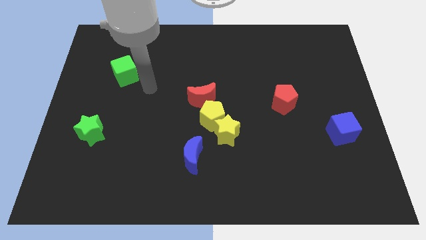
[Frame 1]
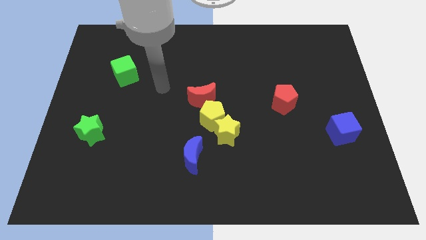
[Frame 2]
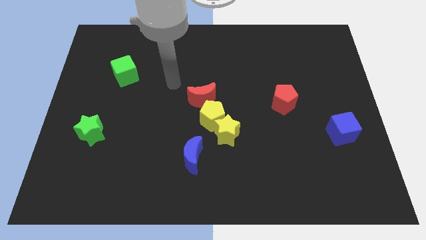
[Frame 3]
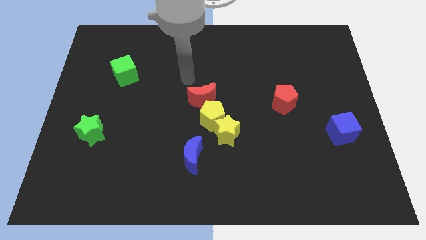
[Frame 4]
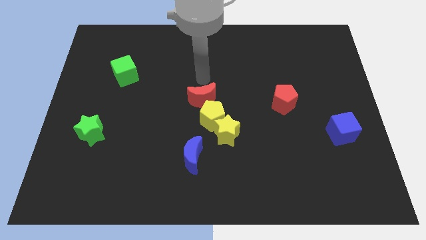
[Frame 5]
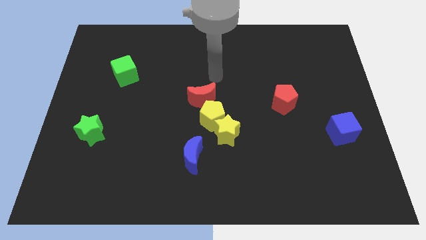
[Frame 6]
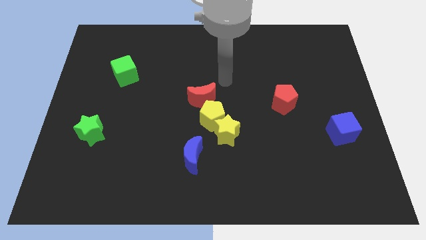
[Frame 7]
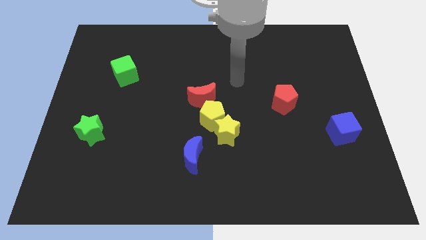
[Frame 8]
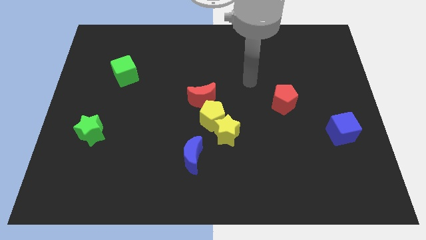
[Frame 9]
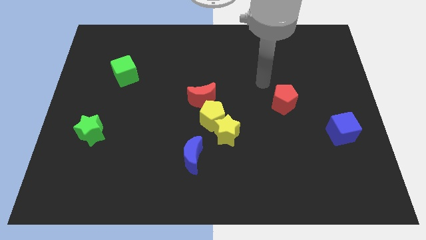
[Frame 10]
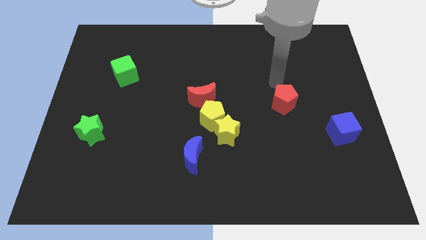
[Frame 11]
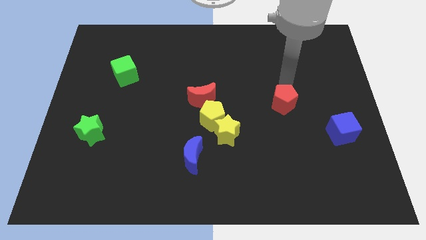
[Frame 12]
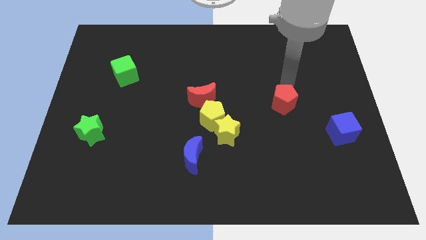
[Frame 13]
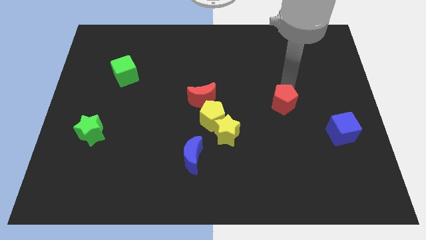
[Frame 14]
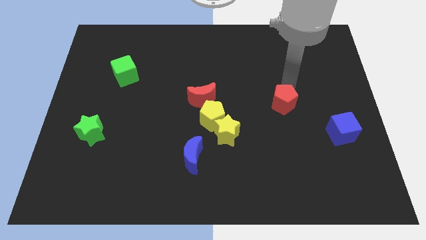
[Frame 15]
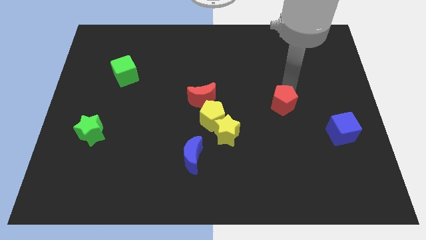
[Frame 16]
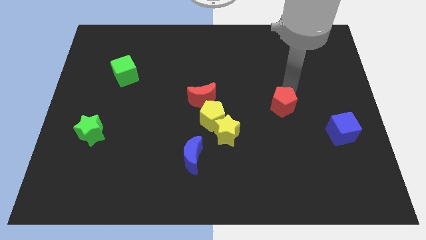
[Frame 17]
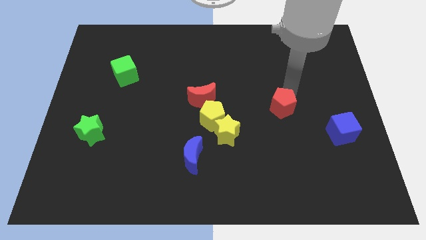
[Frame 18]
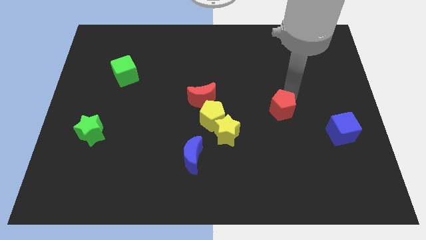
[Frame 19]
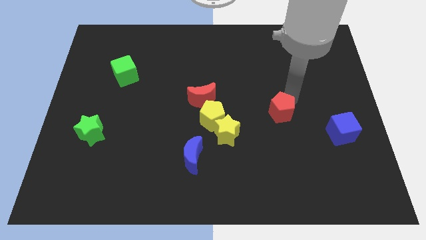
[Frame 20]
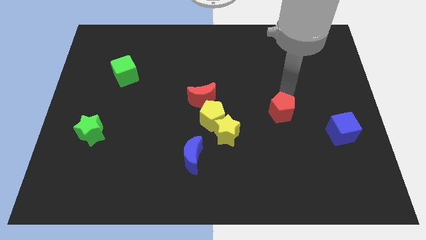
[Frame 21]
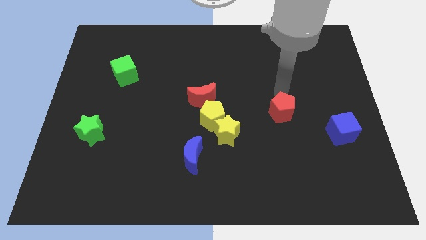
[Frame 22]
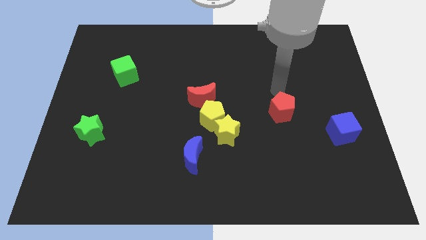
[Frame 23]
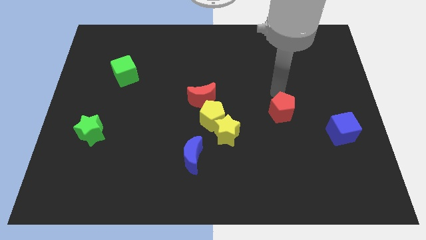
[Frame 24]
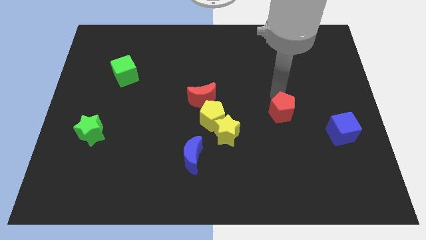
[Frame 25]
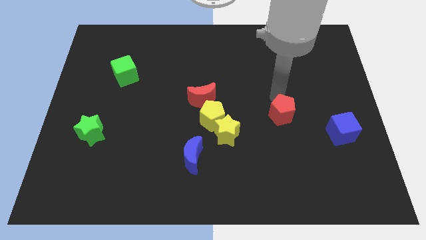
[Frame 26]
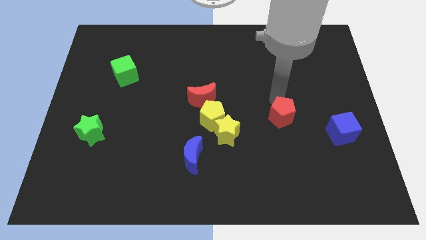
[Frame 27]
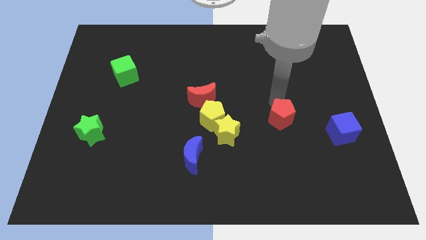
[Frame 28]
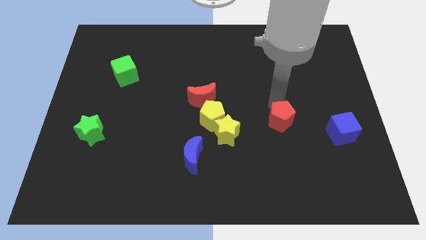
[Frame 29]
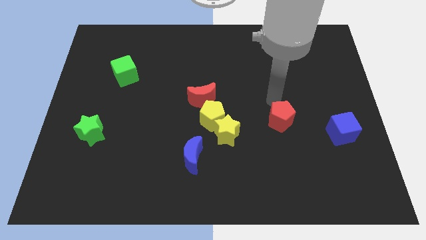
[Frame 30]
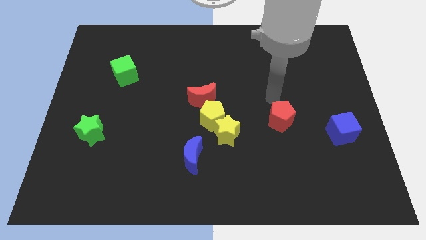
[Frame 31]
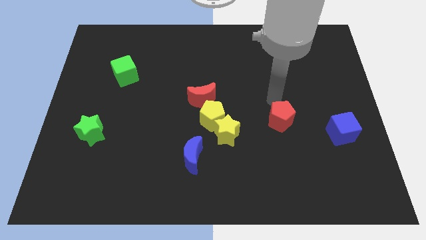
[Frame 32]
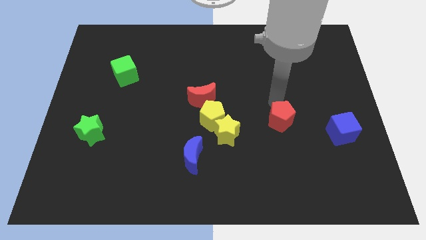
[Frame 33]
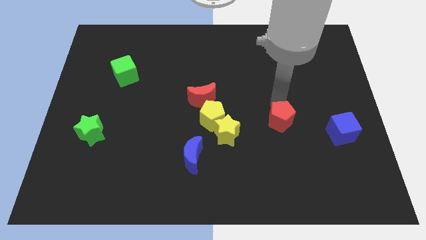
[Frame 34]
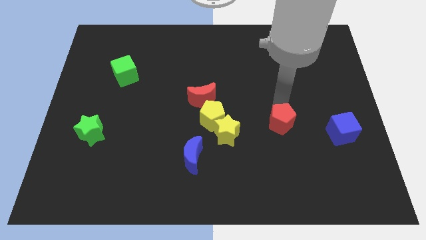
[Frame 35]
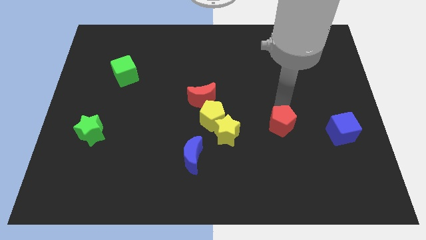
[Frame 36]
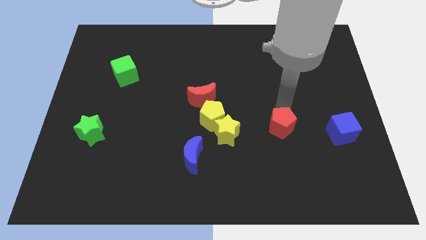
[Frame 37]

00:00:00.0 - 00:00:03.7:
slide the red pentagon a bit down

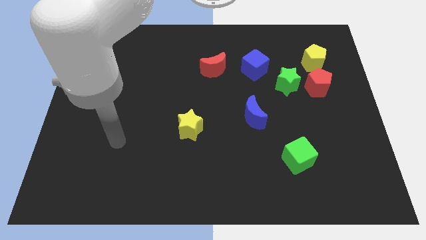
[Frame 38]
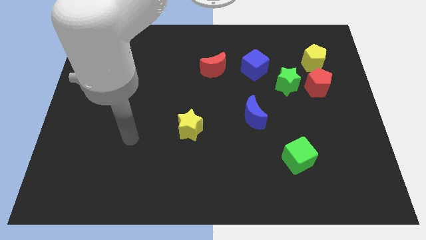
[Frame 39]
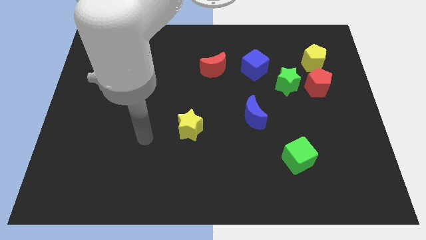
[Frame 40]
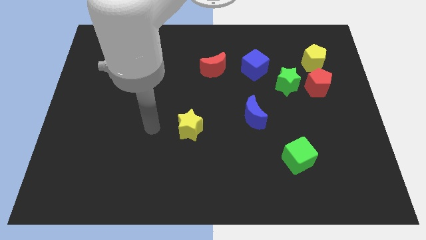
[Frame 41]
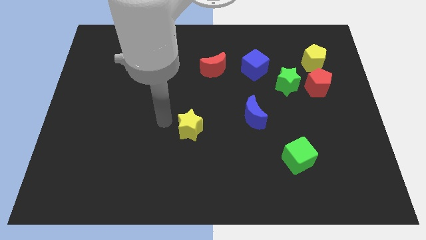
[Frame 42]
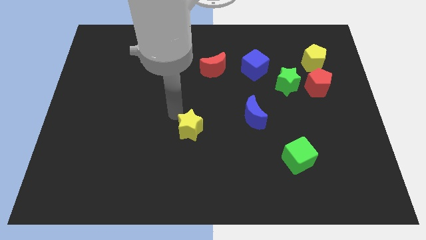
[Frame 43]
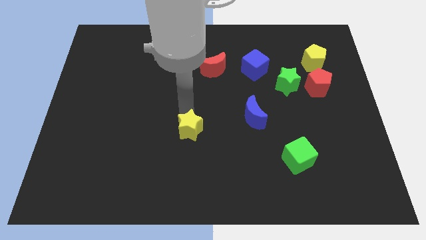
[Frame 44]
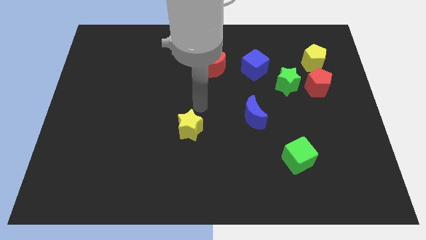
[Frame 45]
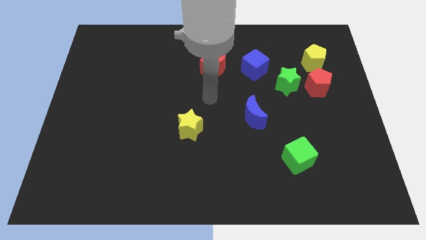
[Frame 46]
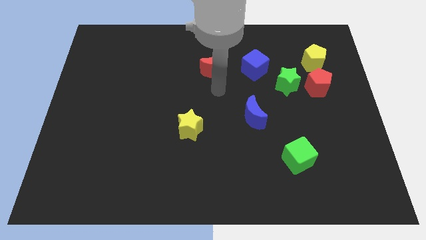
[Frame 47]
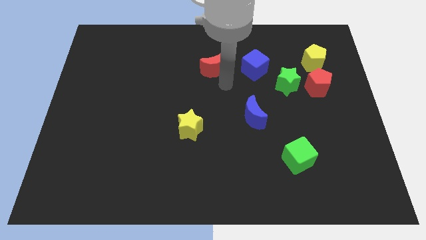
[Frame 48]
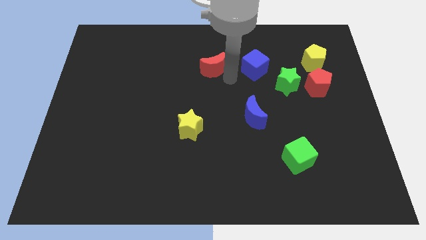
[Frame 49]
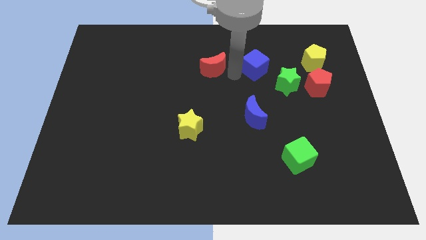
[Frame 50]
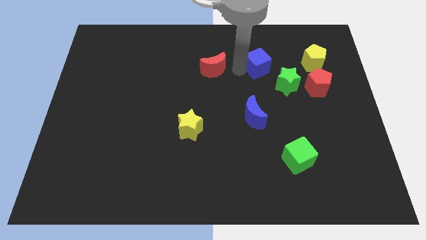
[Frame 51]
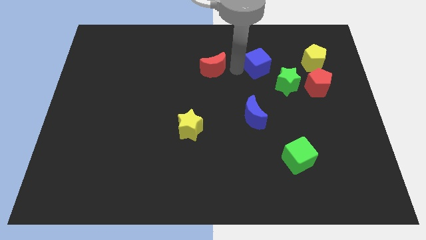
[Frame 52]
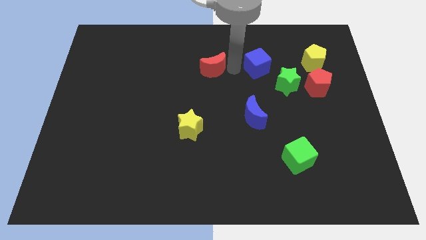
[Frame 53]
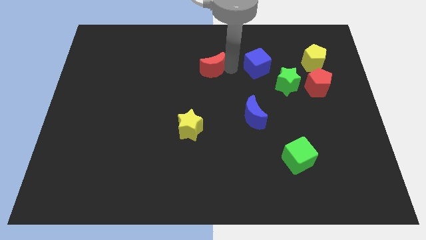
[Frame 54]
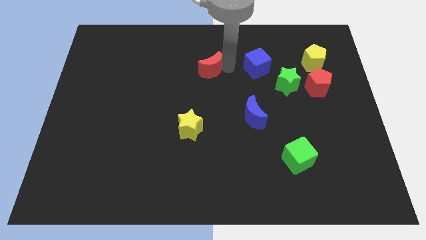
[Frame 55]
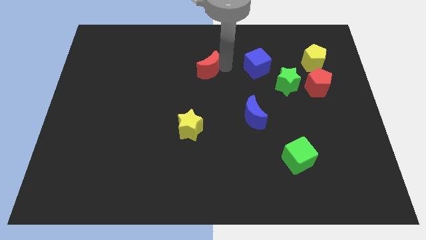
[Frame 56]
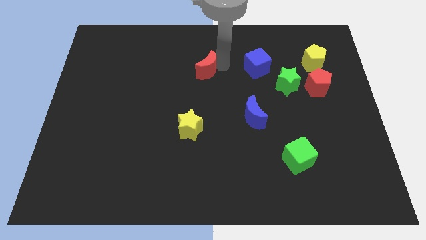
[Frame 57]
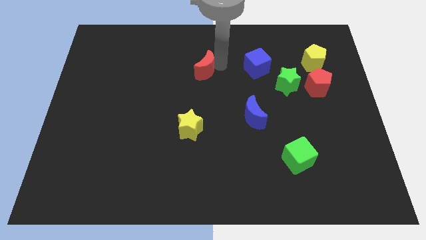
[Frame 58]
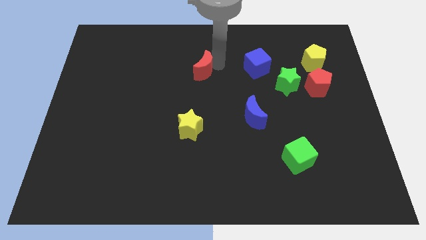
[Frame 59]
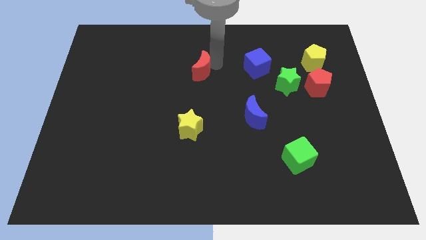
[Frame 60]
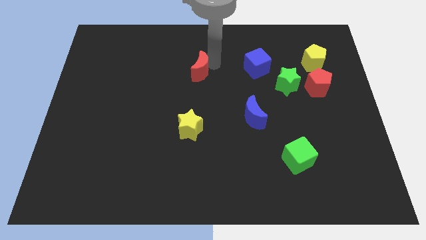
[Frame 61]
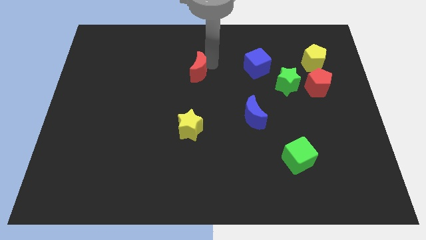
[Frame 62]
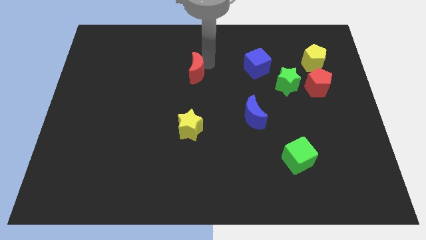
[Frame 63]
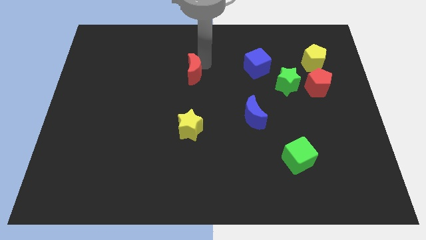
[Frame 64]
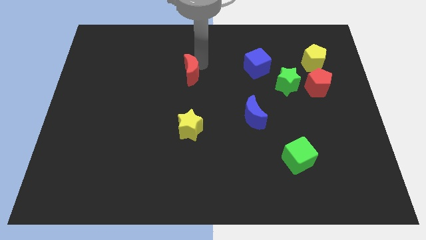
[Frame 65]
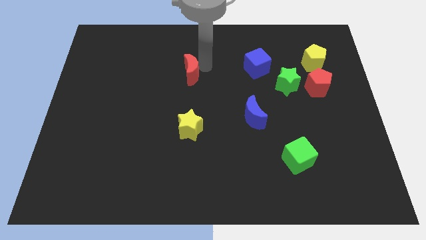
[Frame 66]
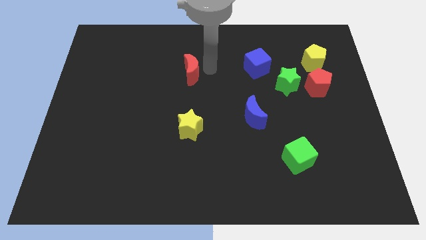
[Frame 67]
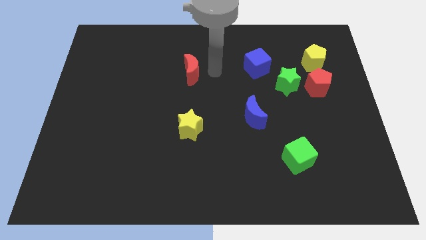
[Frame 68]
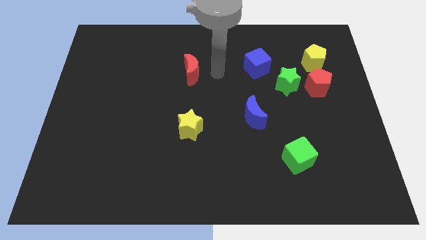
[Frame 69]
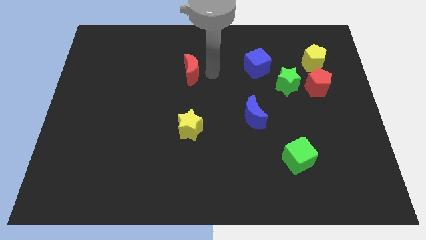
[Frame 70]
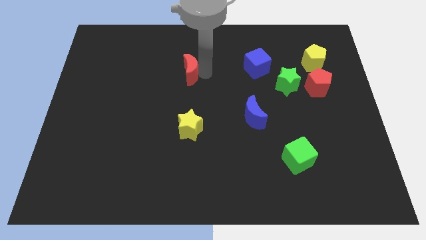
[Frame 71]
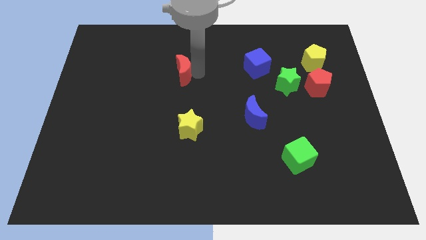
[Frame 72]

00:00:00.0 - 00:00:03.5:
push the red moon left a bit

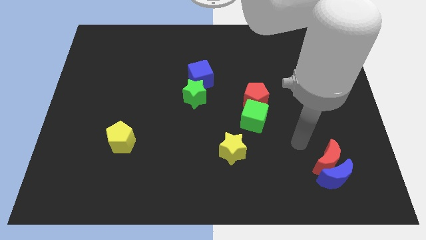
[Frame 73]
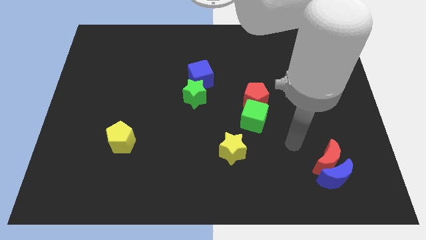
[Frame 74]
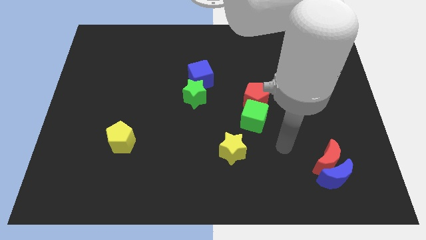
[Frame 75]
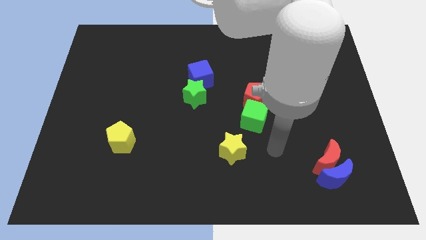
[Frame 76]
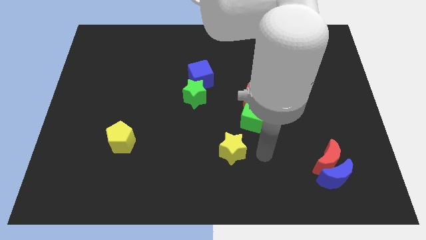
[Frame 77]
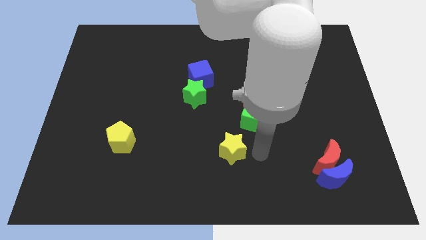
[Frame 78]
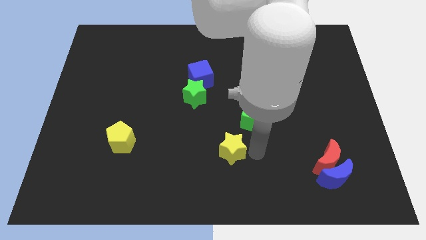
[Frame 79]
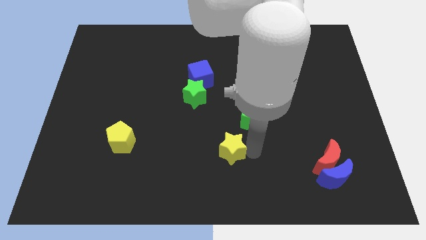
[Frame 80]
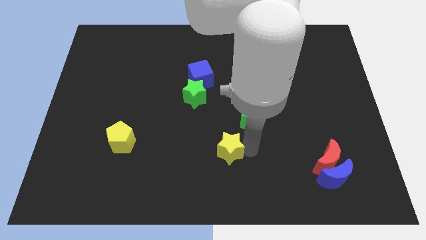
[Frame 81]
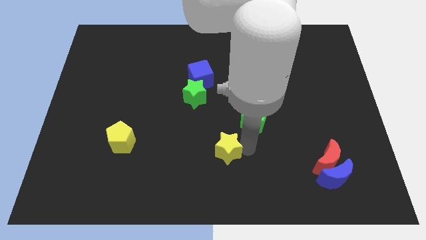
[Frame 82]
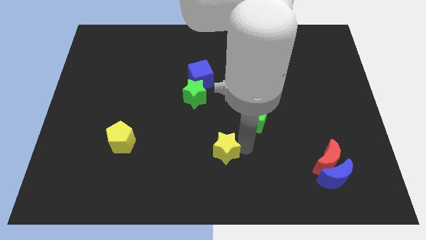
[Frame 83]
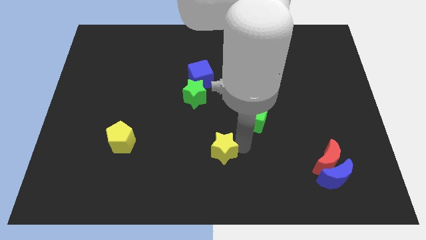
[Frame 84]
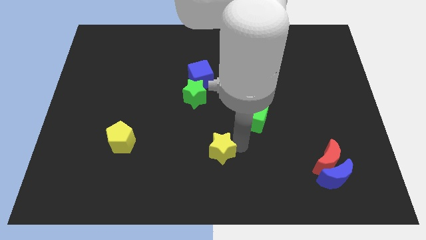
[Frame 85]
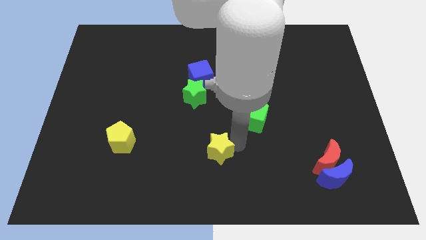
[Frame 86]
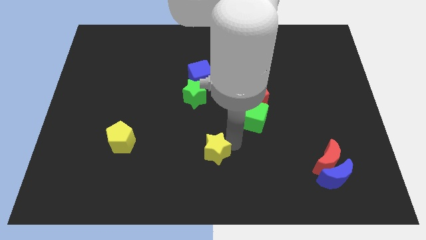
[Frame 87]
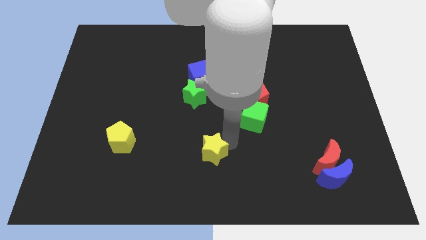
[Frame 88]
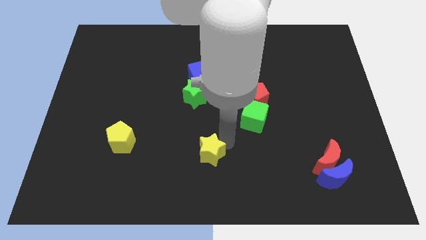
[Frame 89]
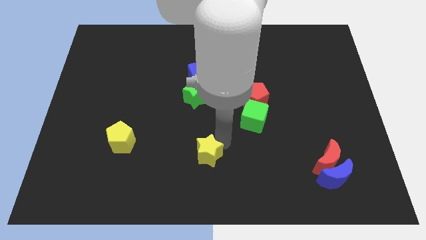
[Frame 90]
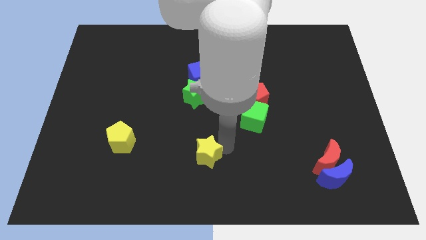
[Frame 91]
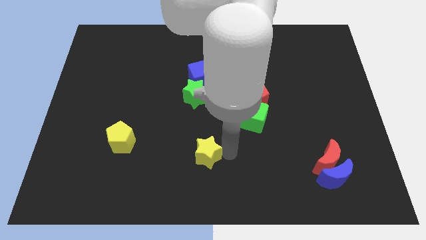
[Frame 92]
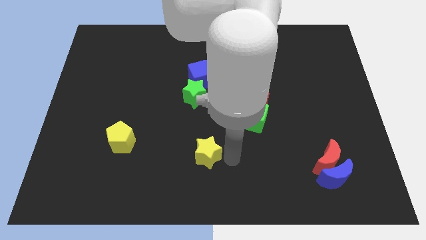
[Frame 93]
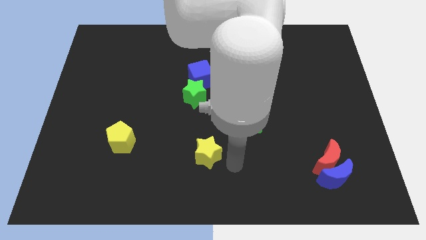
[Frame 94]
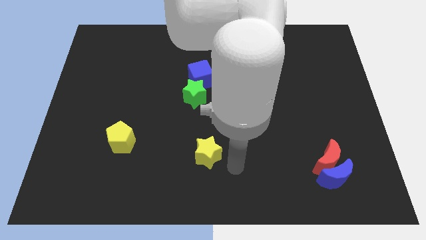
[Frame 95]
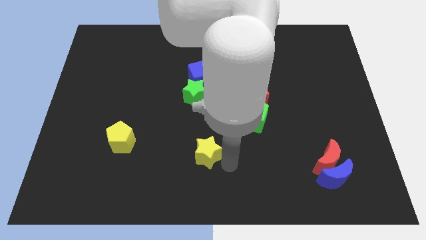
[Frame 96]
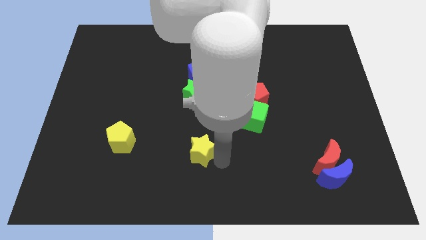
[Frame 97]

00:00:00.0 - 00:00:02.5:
slightly move the yellow star left
